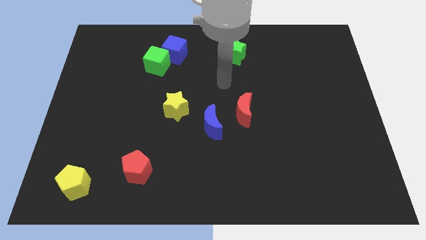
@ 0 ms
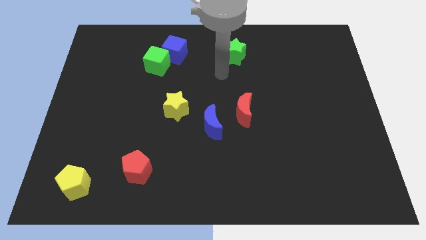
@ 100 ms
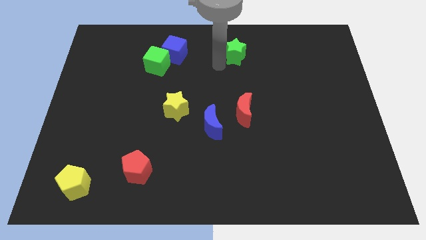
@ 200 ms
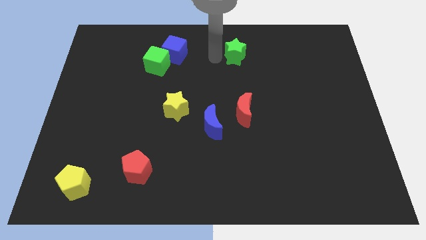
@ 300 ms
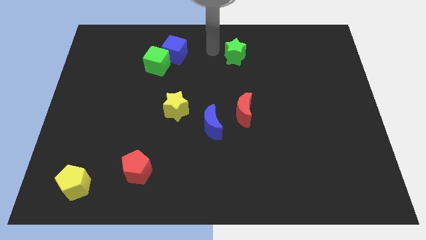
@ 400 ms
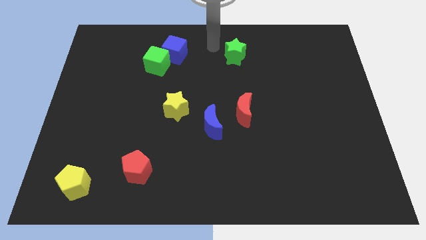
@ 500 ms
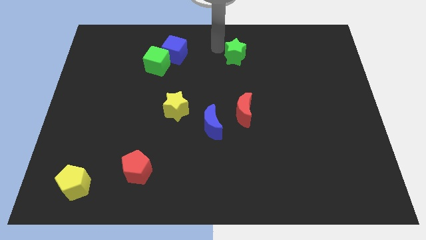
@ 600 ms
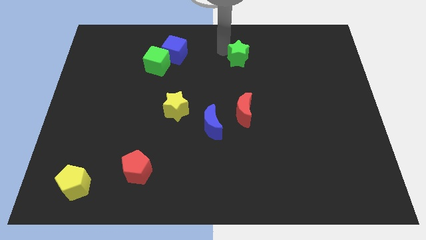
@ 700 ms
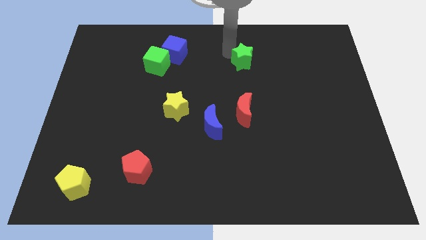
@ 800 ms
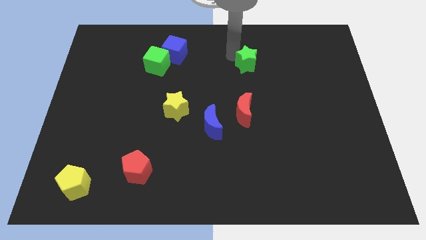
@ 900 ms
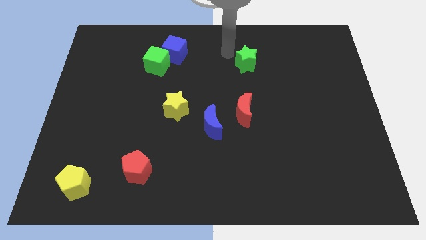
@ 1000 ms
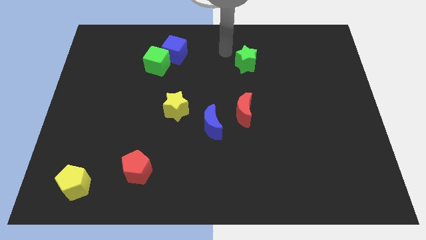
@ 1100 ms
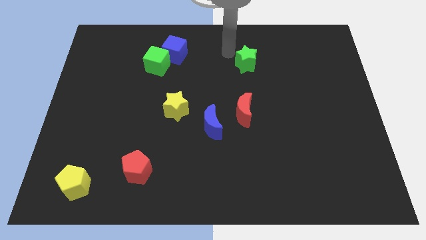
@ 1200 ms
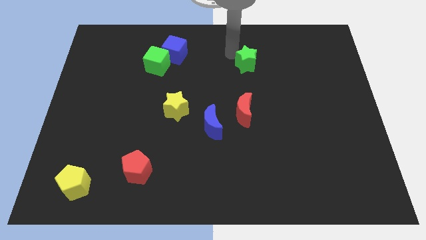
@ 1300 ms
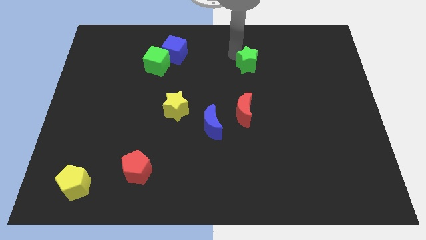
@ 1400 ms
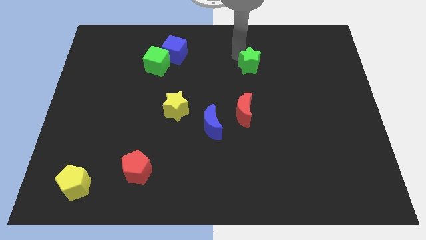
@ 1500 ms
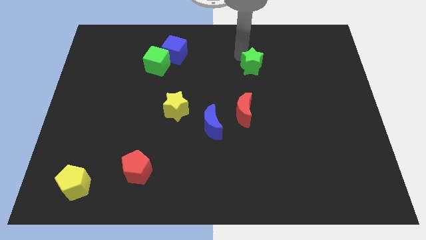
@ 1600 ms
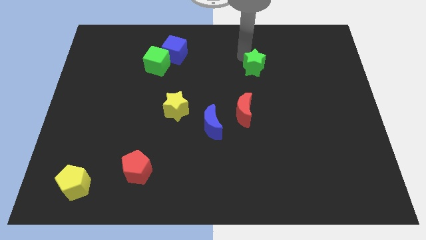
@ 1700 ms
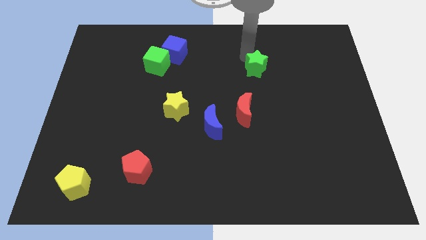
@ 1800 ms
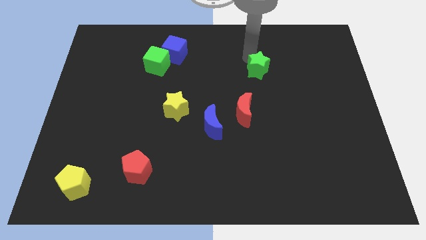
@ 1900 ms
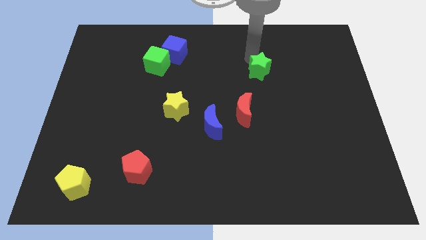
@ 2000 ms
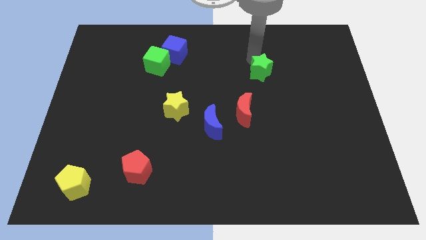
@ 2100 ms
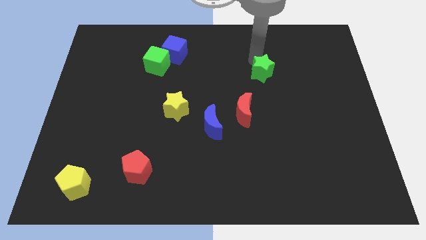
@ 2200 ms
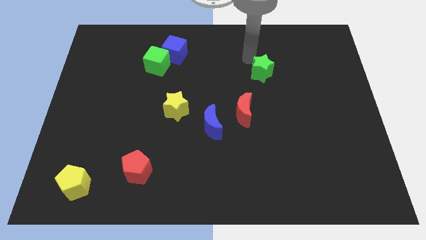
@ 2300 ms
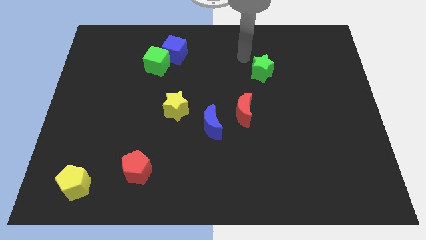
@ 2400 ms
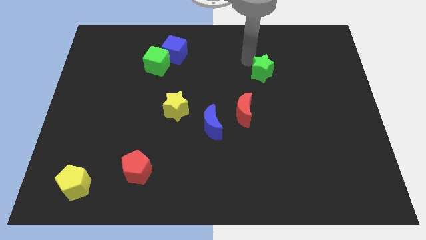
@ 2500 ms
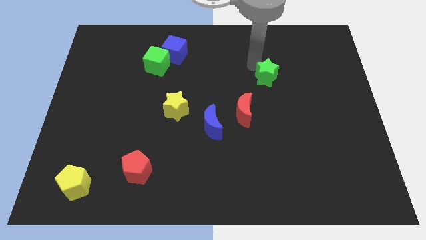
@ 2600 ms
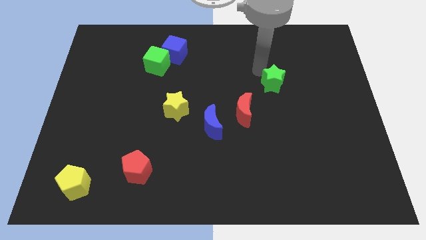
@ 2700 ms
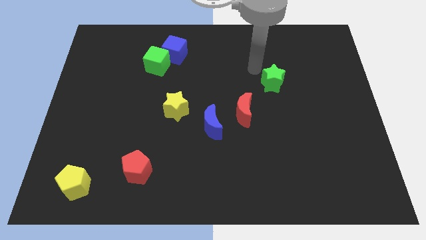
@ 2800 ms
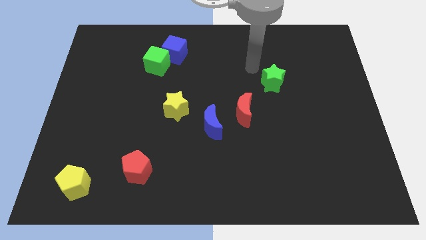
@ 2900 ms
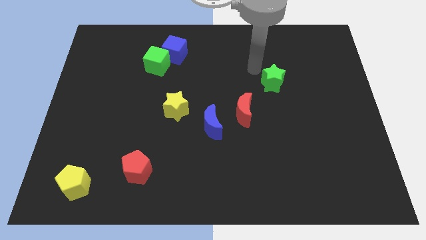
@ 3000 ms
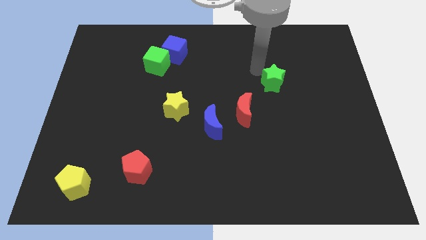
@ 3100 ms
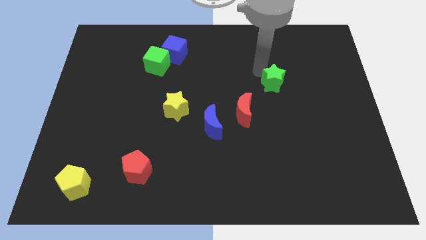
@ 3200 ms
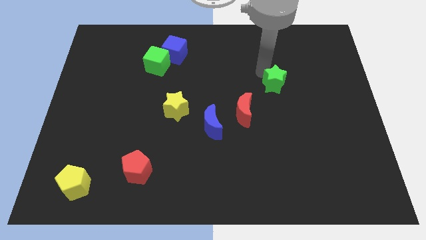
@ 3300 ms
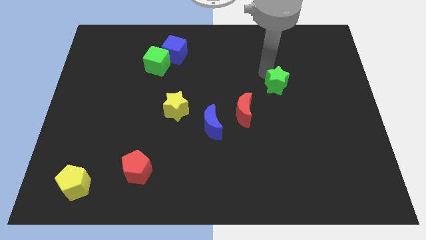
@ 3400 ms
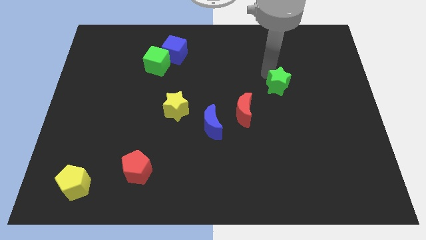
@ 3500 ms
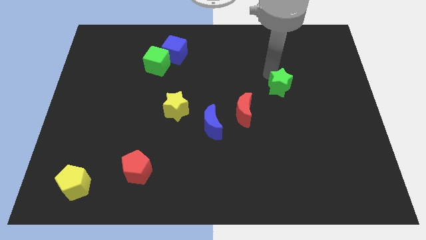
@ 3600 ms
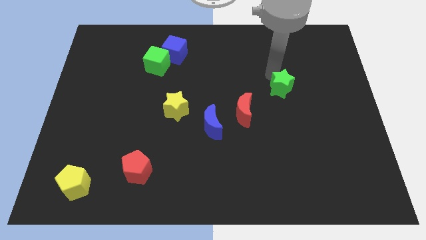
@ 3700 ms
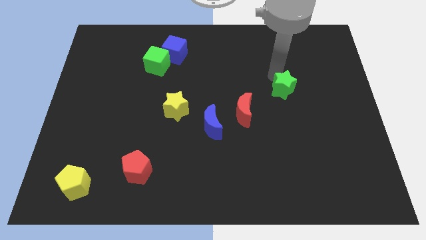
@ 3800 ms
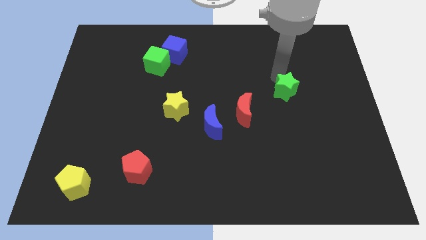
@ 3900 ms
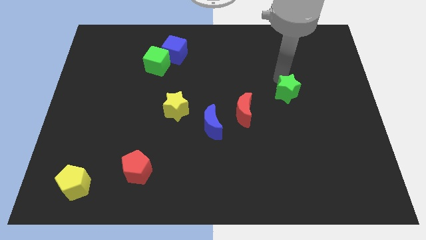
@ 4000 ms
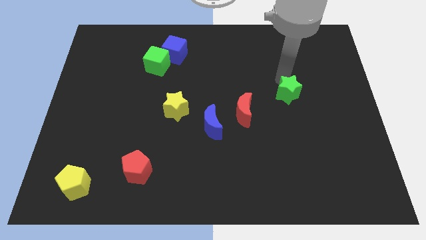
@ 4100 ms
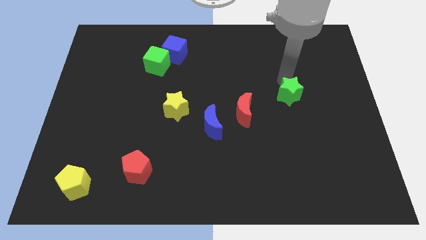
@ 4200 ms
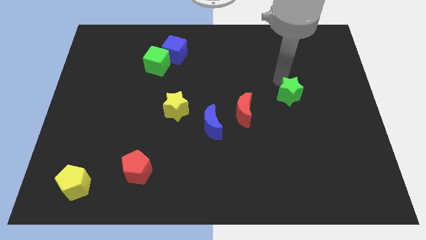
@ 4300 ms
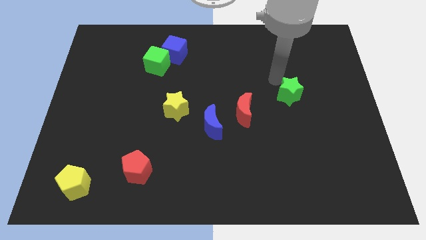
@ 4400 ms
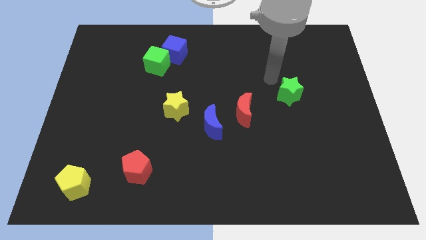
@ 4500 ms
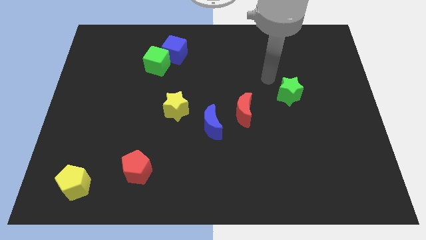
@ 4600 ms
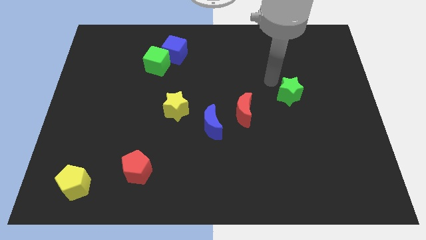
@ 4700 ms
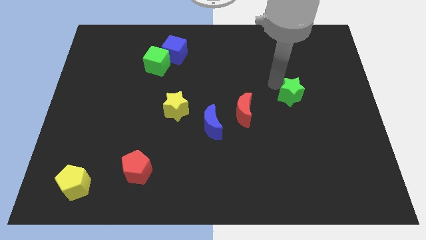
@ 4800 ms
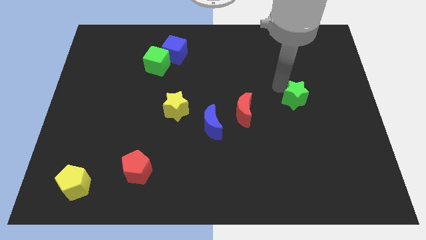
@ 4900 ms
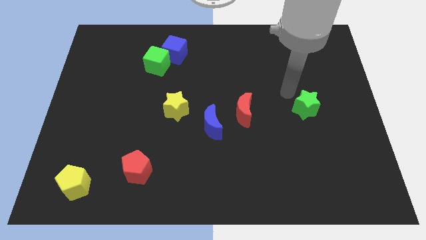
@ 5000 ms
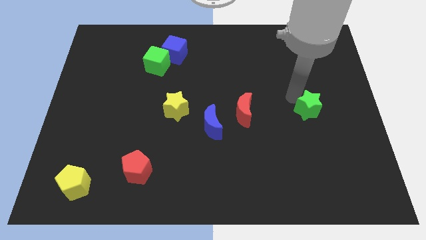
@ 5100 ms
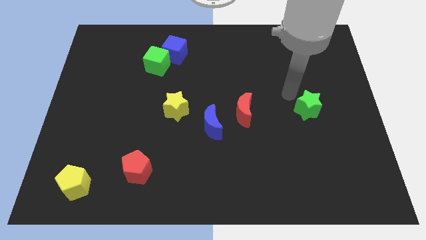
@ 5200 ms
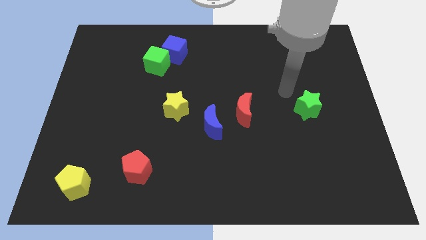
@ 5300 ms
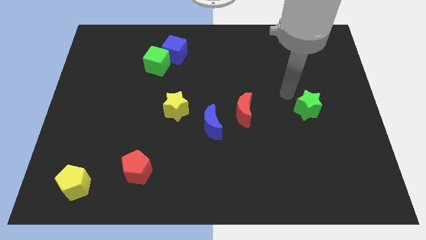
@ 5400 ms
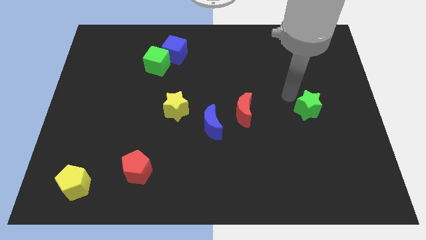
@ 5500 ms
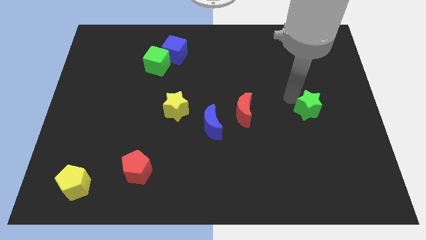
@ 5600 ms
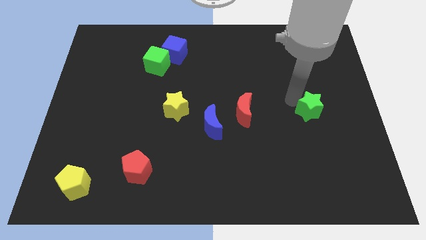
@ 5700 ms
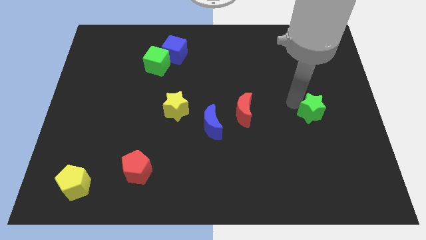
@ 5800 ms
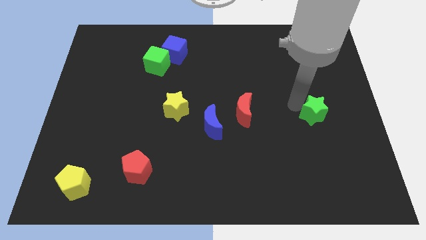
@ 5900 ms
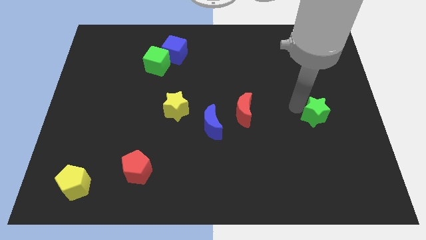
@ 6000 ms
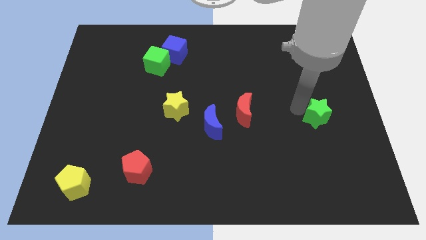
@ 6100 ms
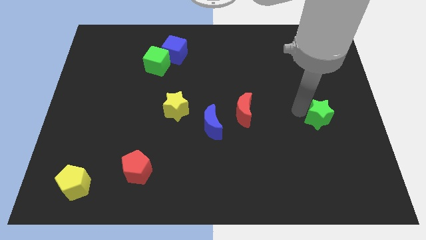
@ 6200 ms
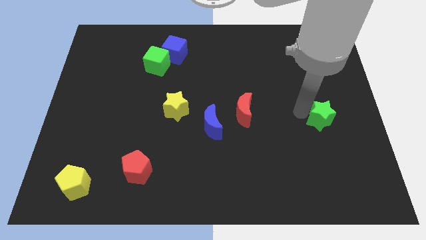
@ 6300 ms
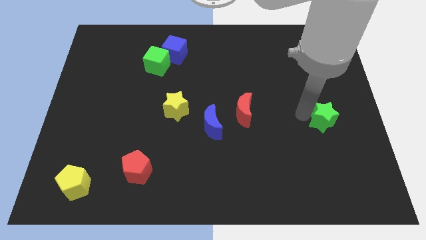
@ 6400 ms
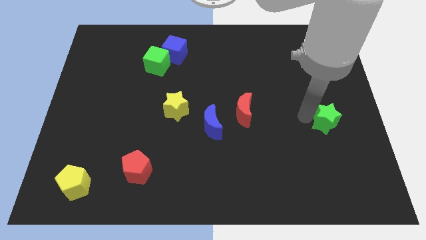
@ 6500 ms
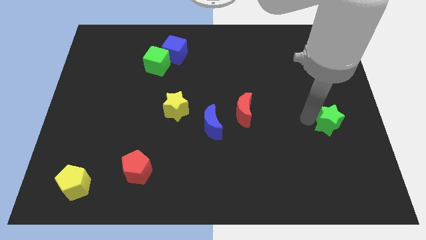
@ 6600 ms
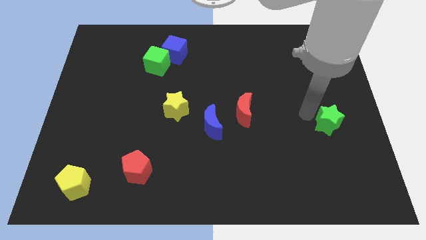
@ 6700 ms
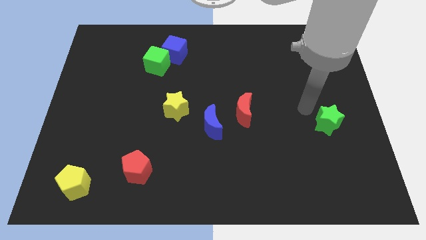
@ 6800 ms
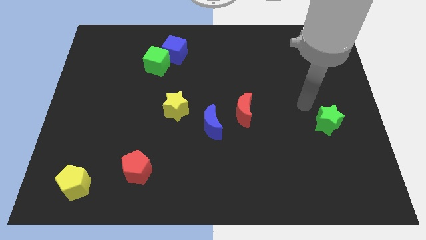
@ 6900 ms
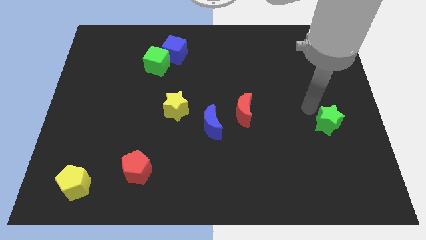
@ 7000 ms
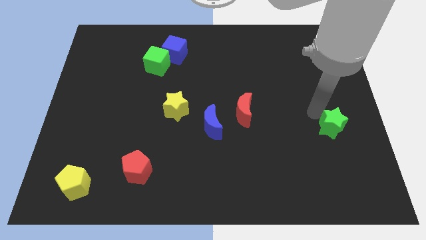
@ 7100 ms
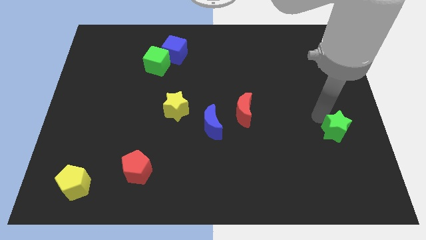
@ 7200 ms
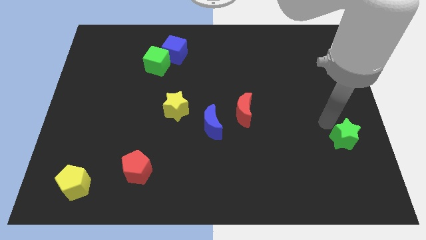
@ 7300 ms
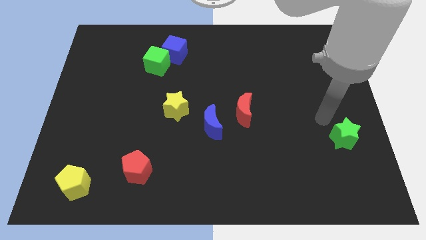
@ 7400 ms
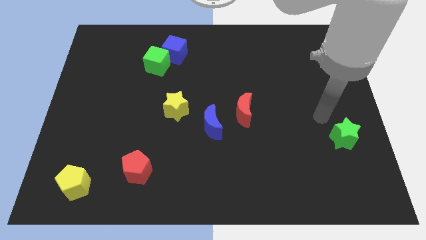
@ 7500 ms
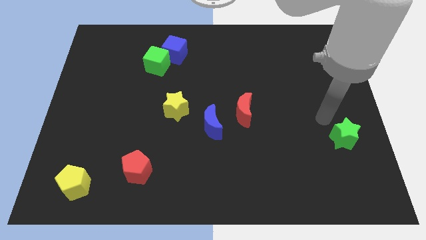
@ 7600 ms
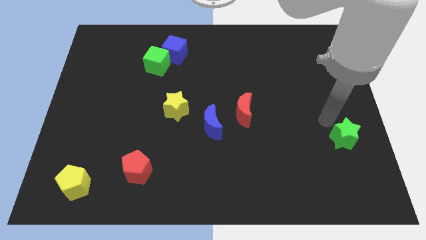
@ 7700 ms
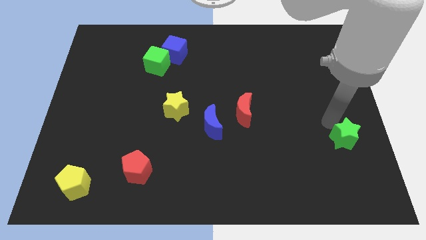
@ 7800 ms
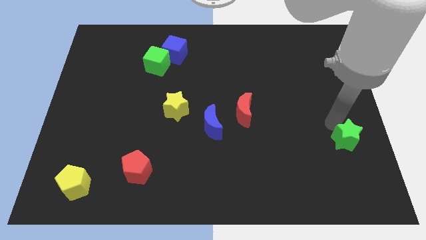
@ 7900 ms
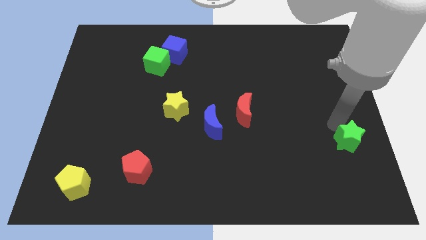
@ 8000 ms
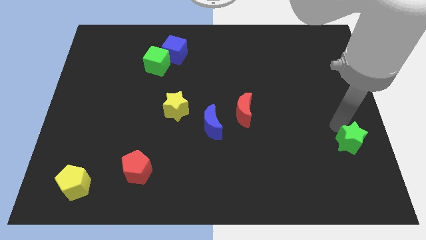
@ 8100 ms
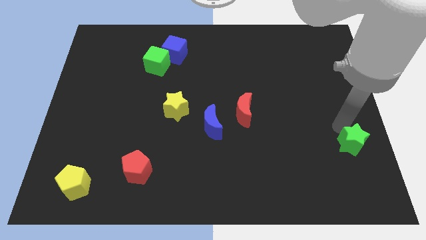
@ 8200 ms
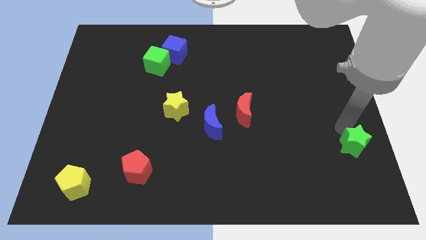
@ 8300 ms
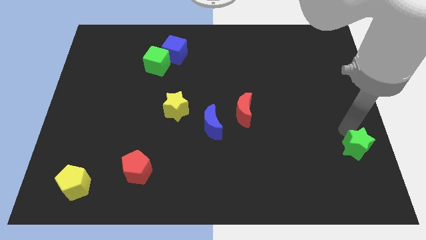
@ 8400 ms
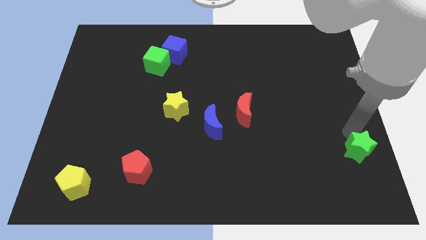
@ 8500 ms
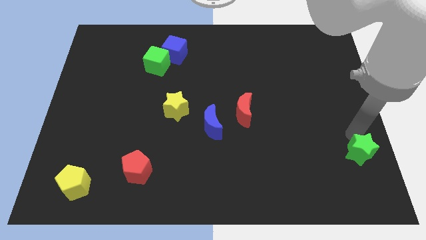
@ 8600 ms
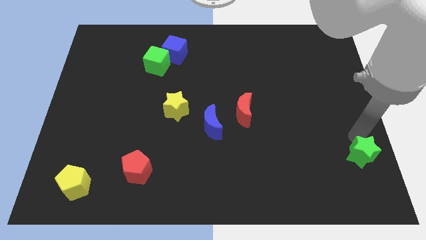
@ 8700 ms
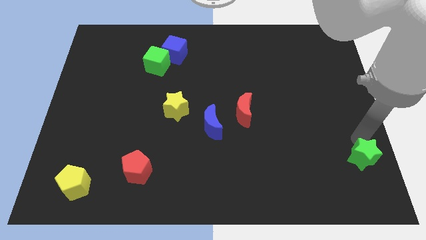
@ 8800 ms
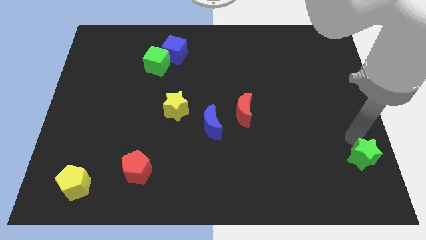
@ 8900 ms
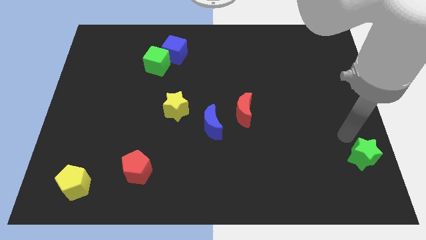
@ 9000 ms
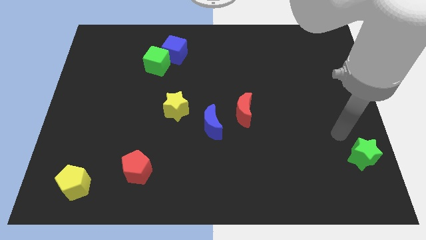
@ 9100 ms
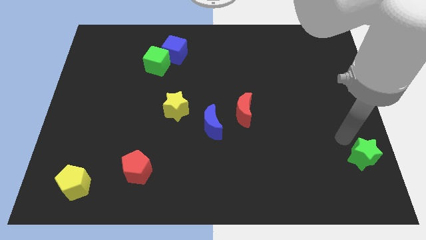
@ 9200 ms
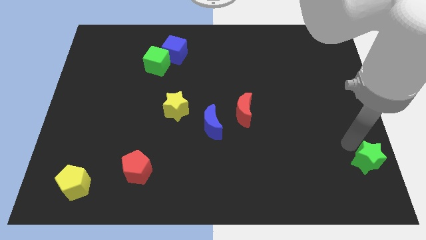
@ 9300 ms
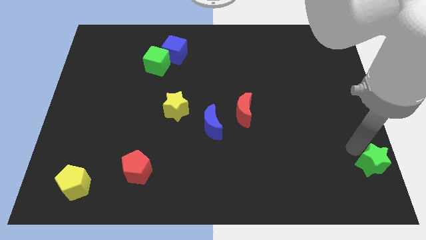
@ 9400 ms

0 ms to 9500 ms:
move the green star to the bottom right of the board
